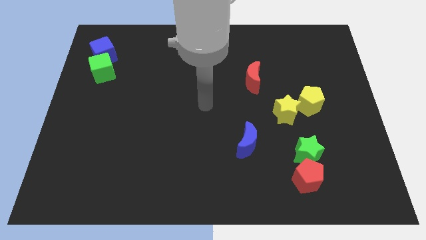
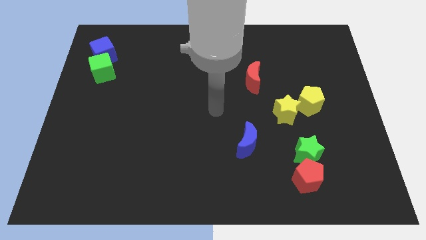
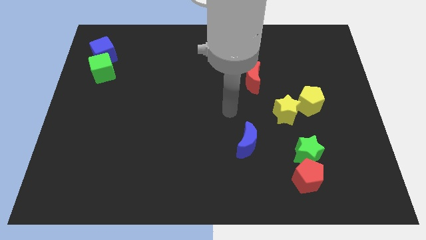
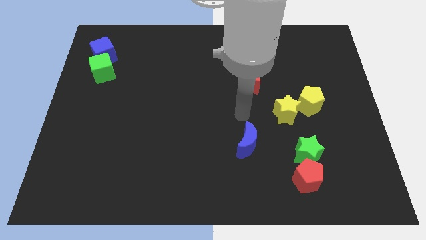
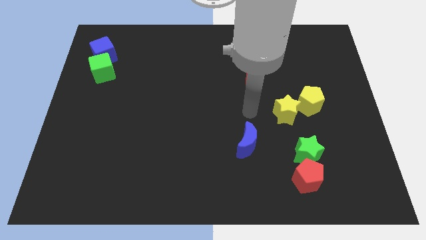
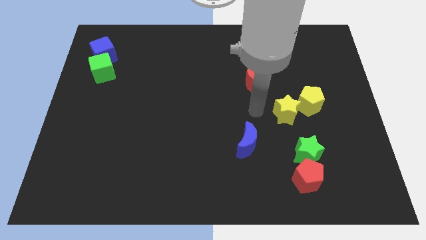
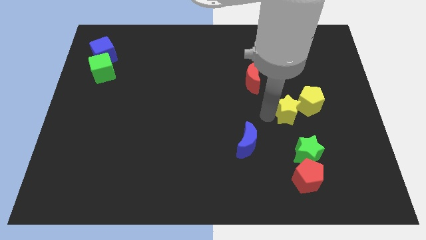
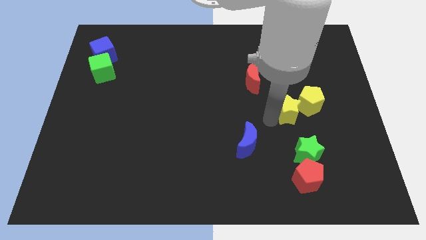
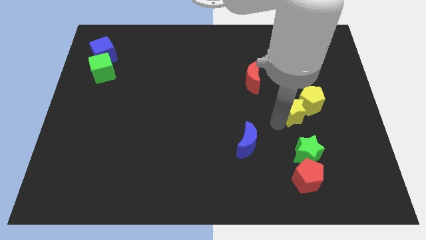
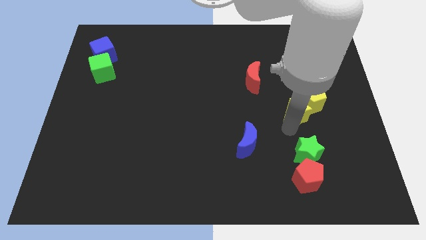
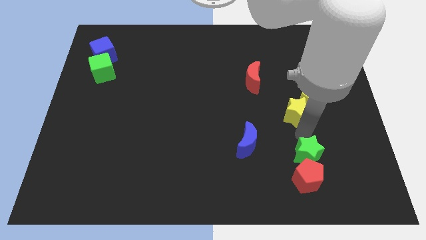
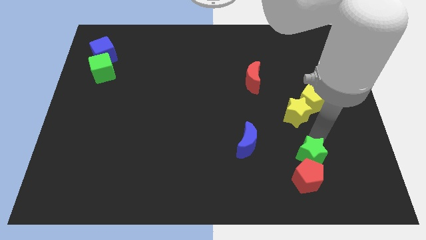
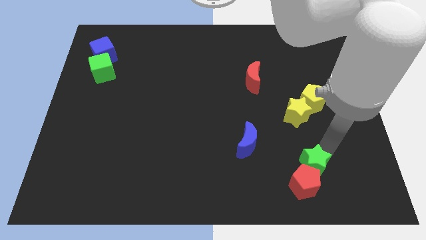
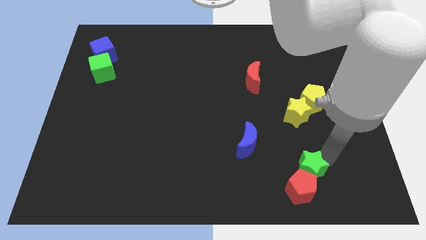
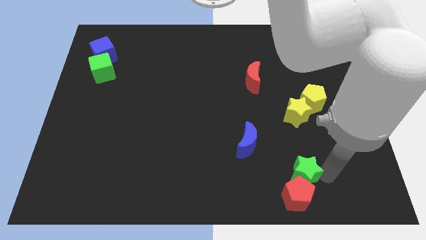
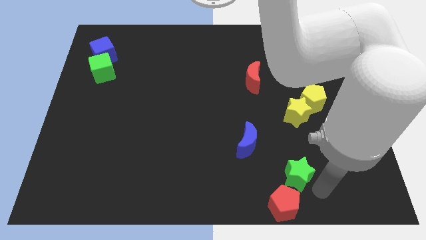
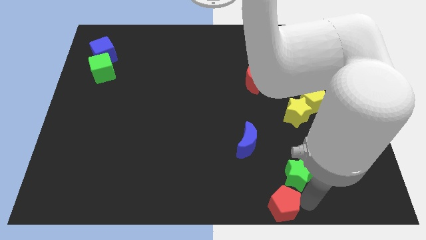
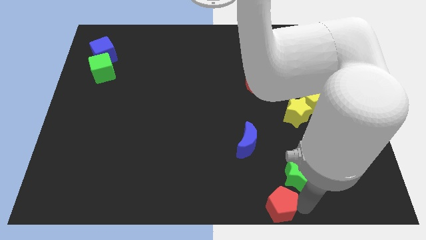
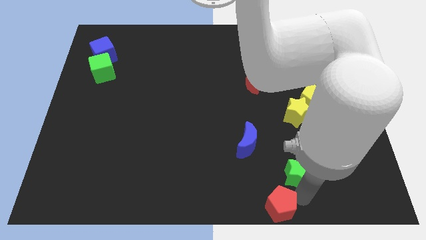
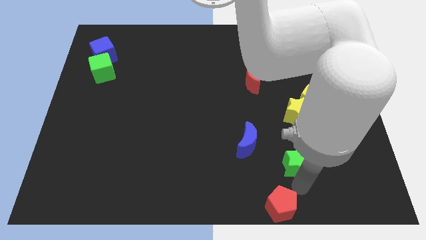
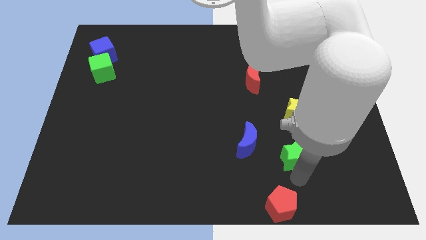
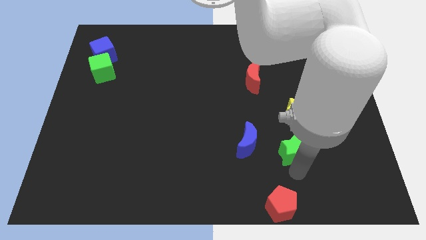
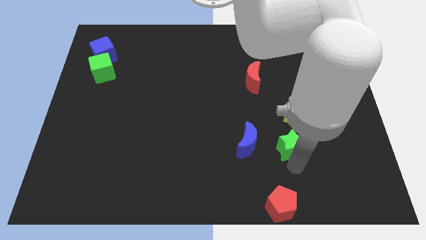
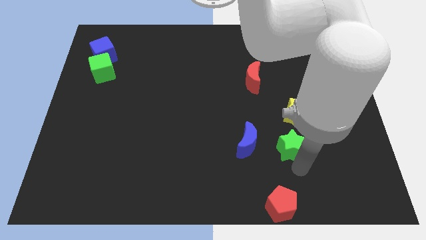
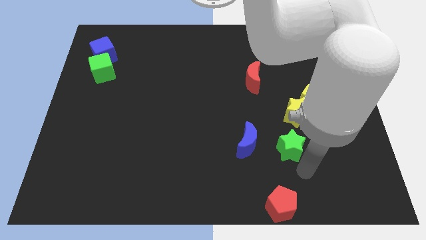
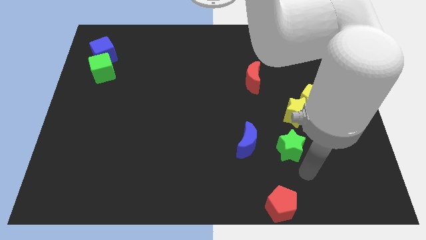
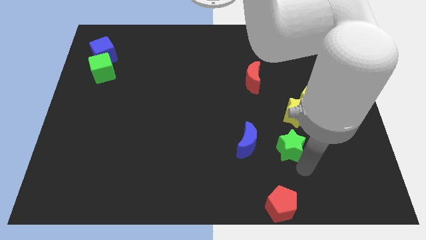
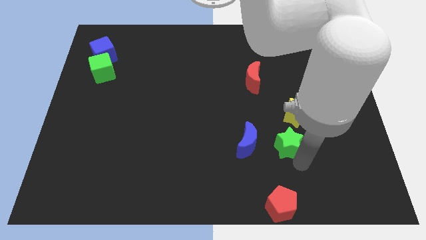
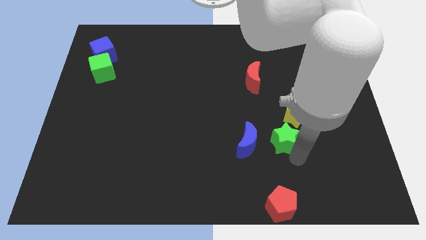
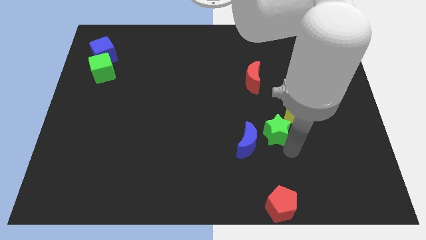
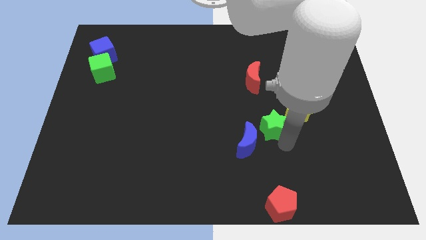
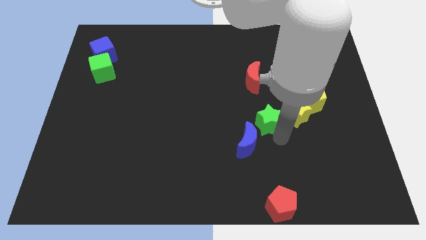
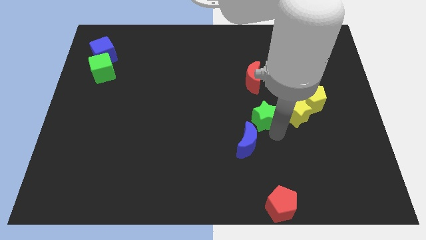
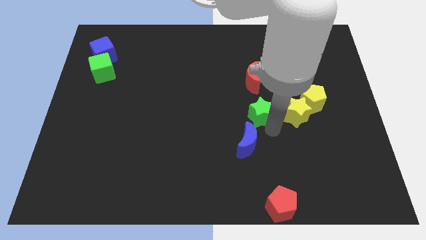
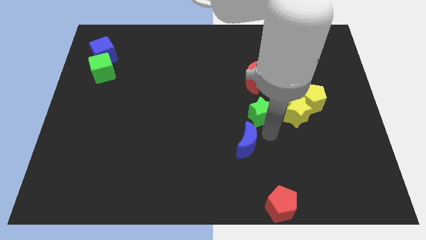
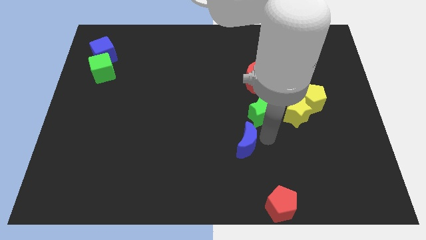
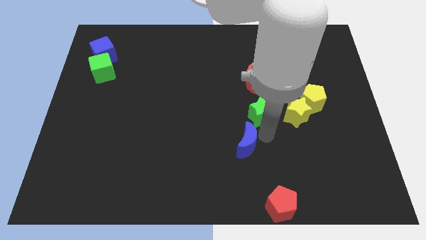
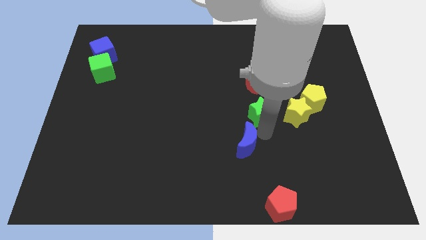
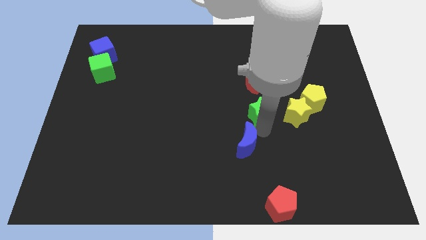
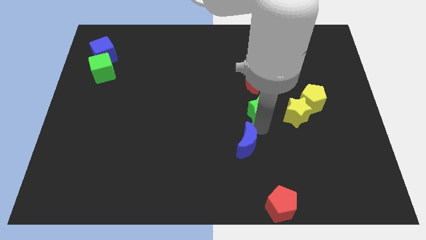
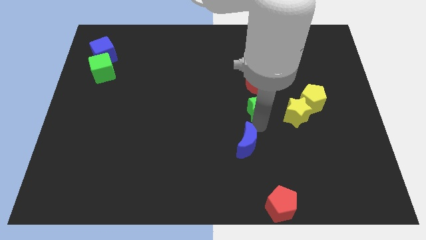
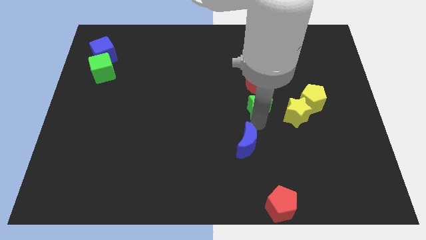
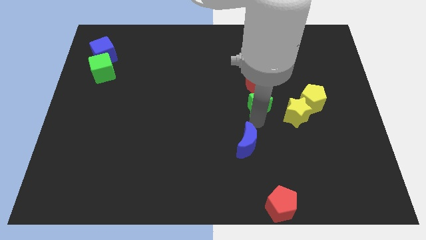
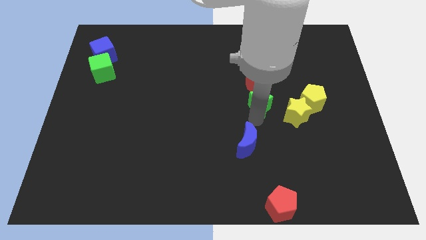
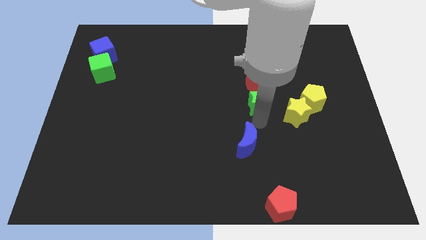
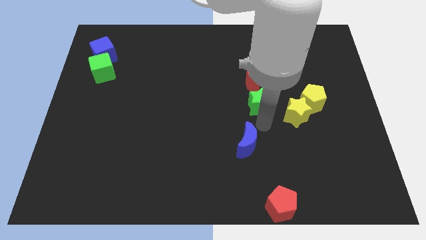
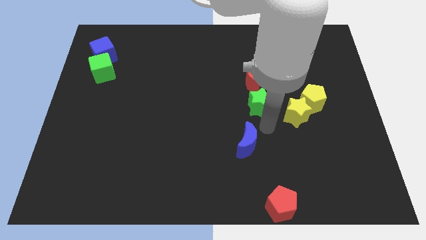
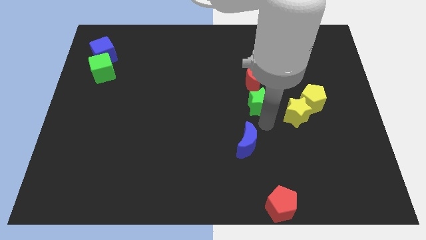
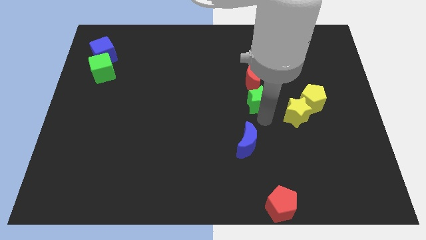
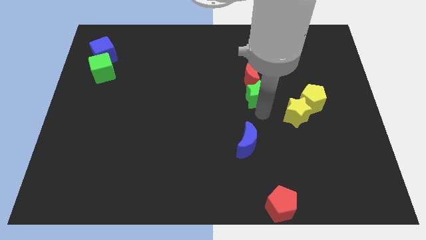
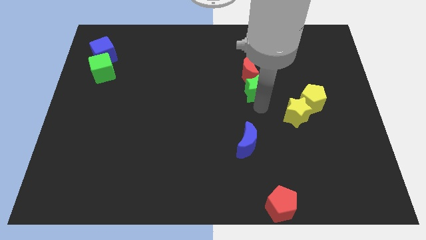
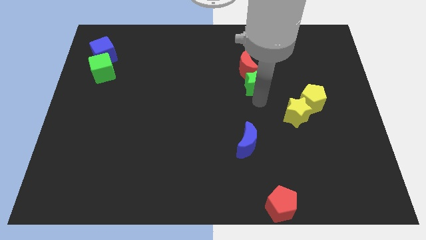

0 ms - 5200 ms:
put the green star towards the red moon

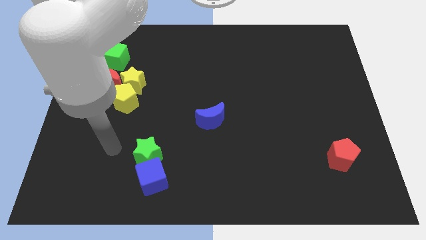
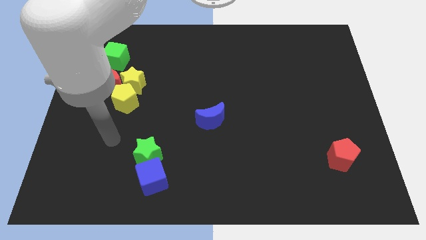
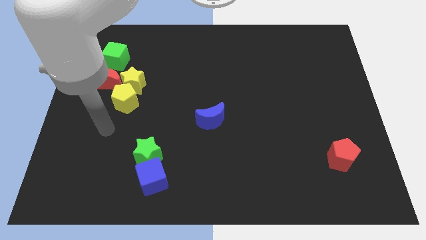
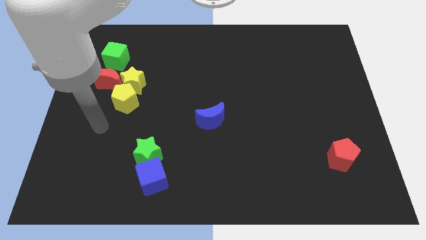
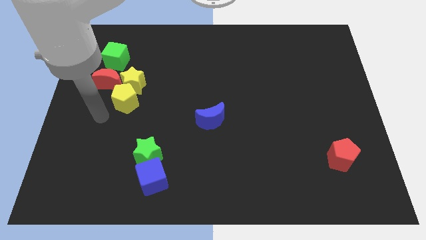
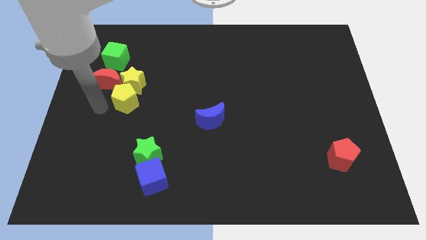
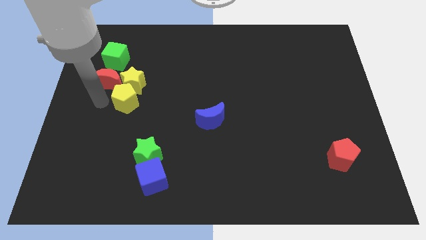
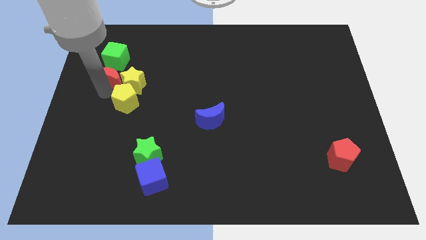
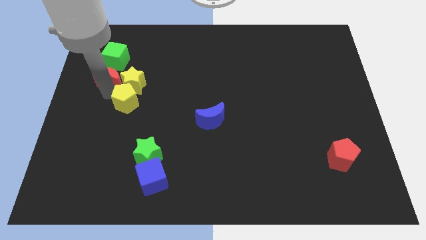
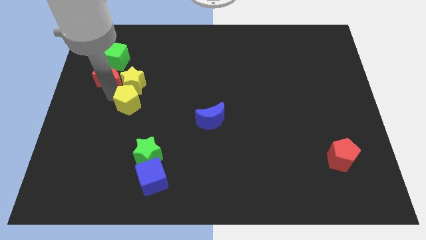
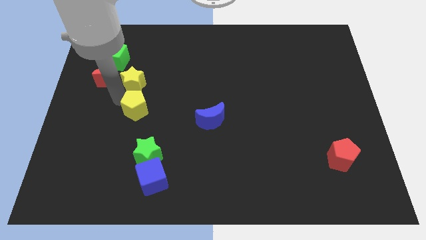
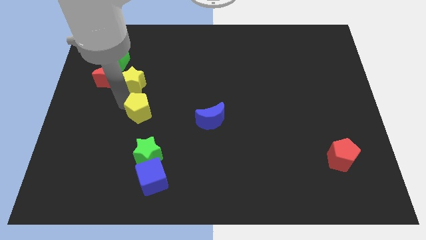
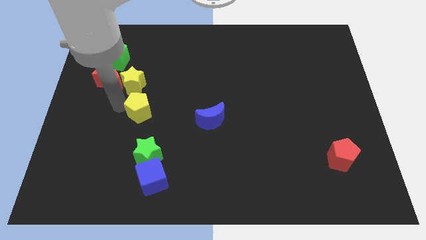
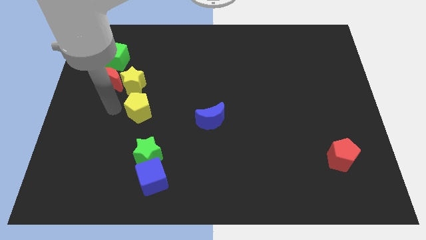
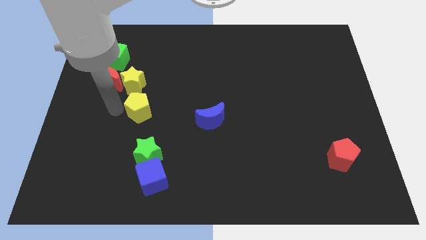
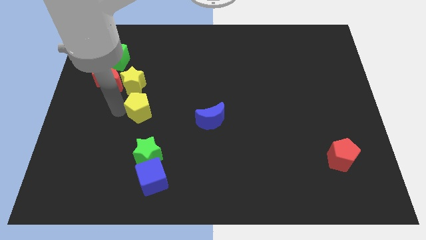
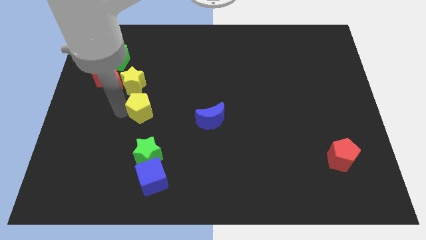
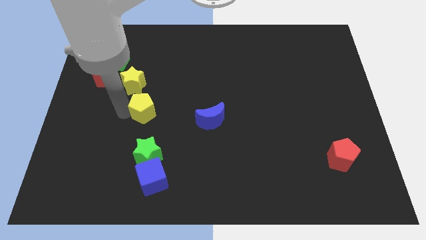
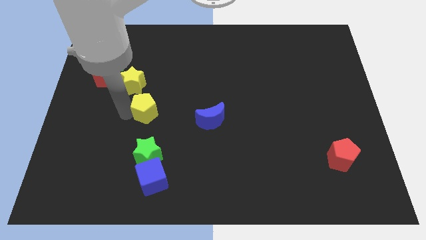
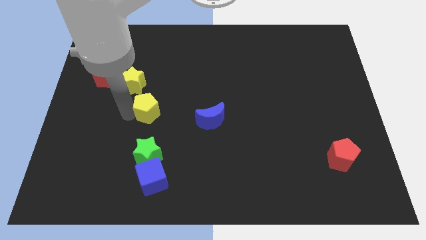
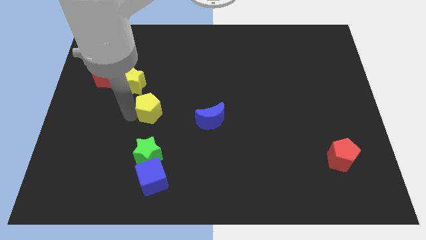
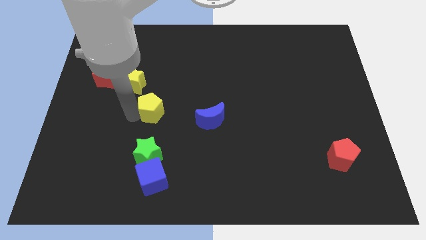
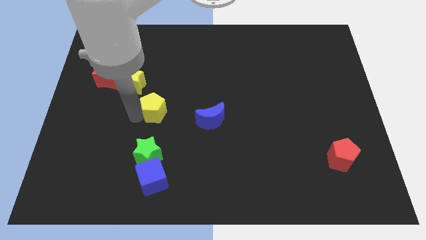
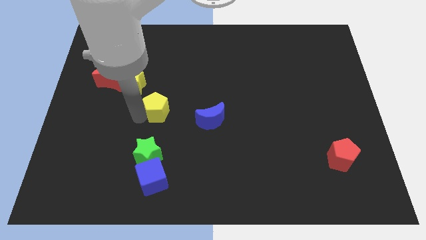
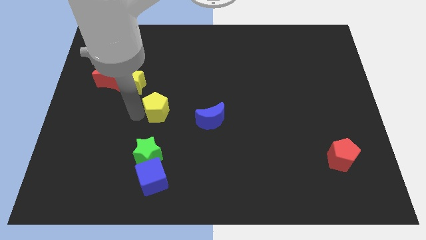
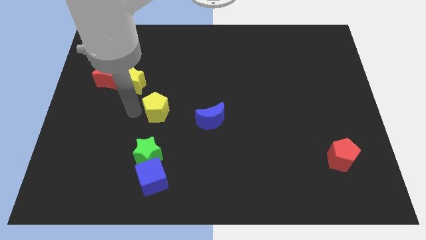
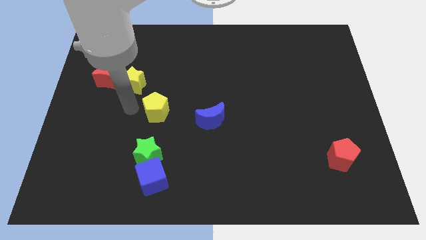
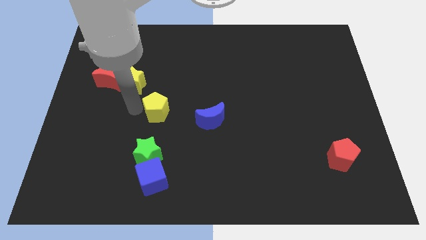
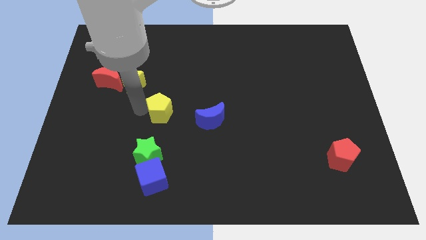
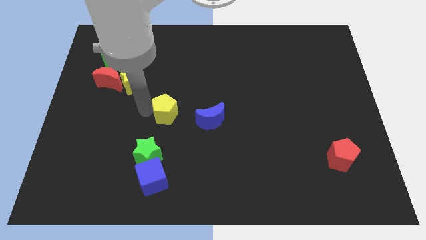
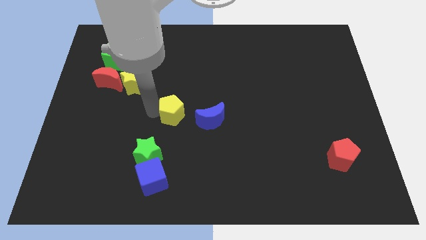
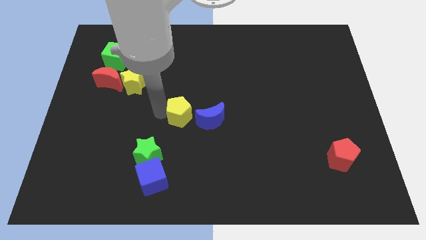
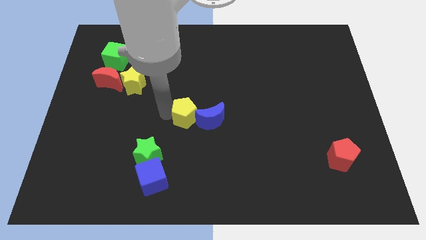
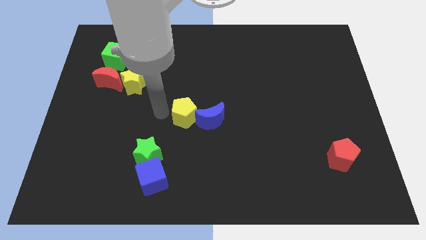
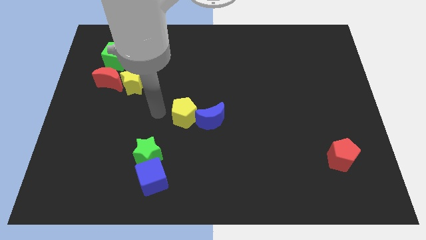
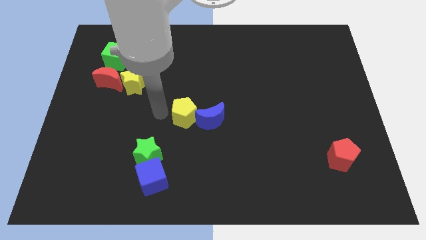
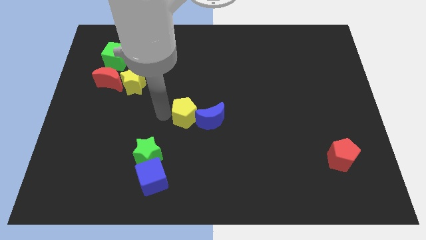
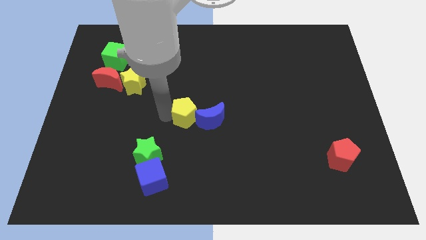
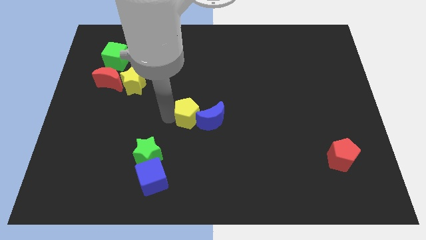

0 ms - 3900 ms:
put the yellow pentagon to the blue moon
